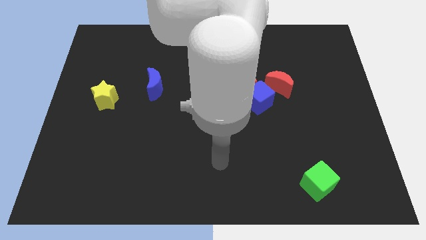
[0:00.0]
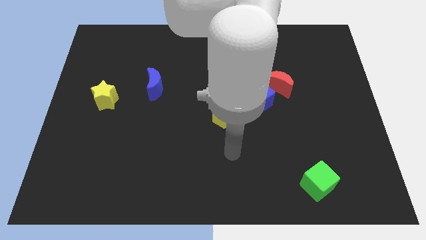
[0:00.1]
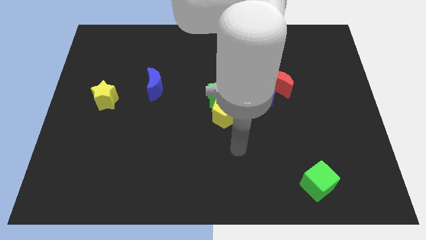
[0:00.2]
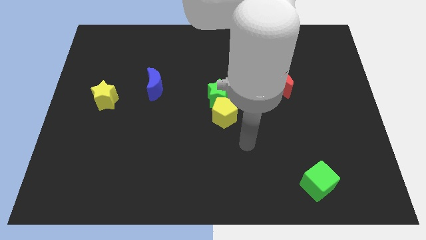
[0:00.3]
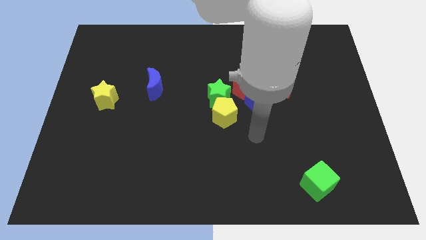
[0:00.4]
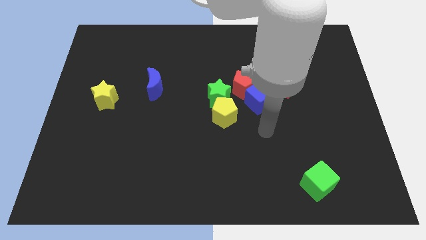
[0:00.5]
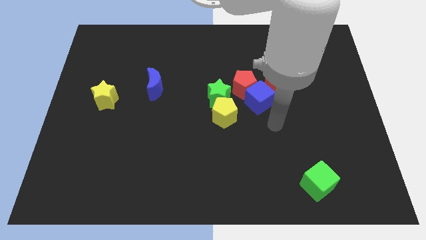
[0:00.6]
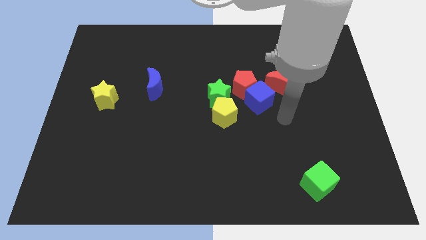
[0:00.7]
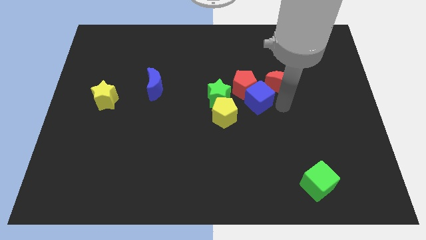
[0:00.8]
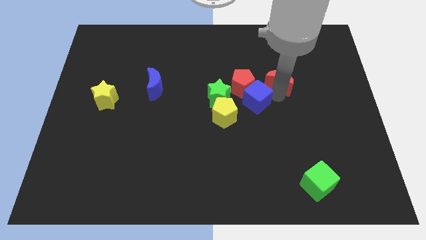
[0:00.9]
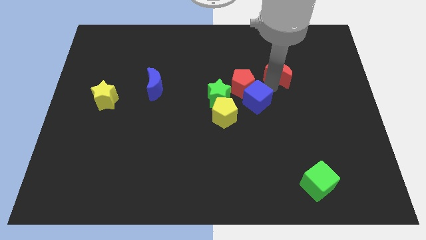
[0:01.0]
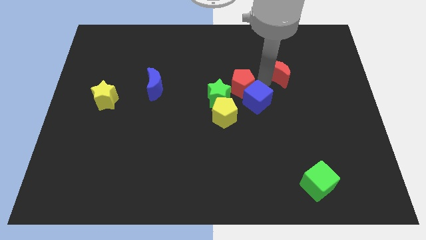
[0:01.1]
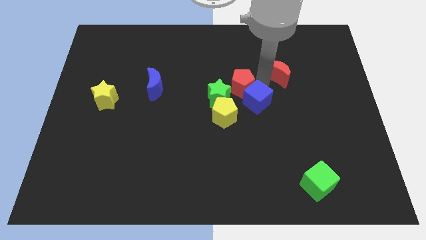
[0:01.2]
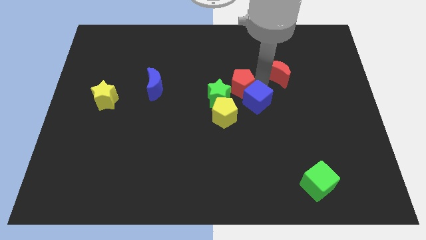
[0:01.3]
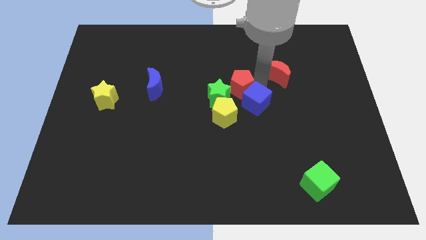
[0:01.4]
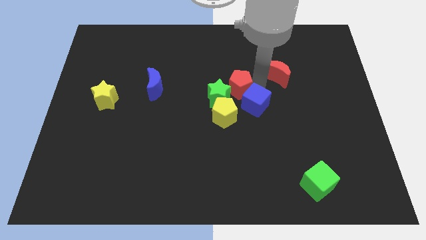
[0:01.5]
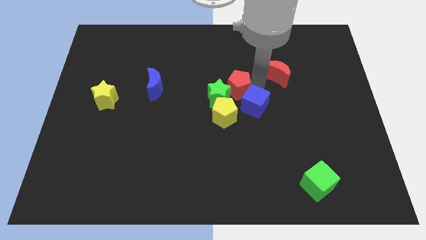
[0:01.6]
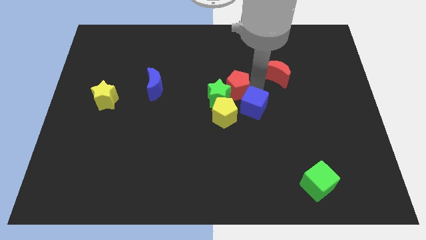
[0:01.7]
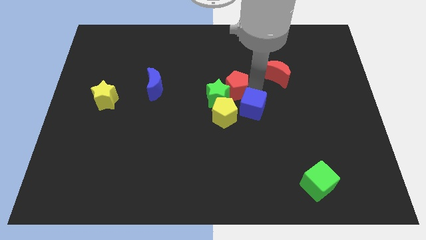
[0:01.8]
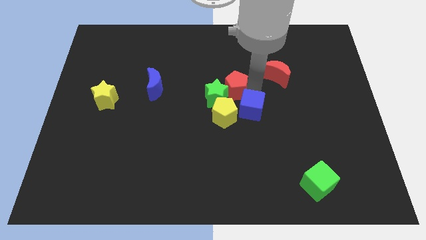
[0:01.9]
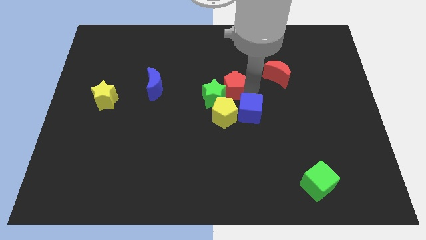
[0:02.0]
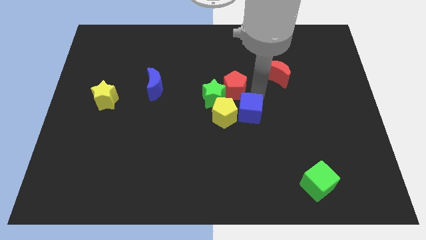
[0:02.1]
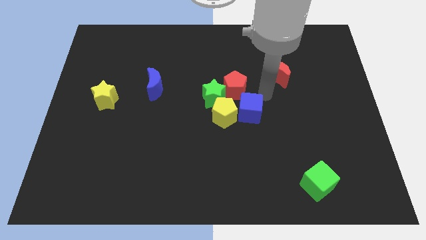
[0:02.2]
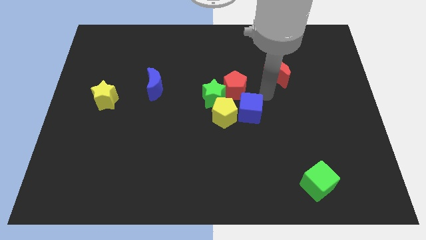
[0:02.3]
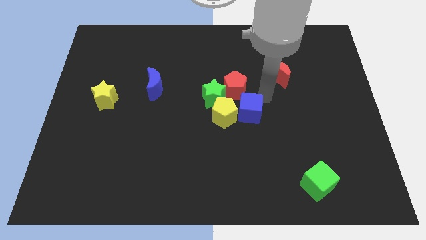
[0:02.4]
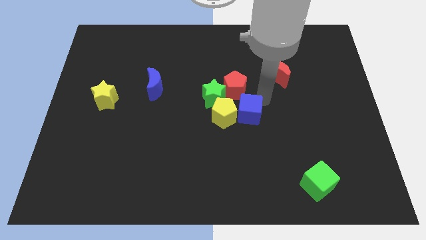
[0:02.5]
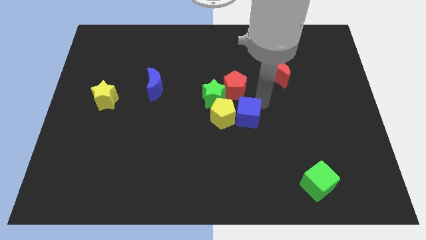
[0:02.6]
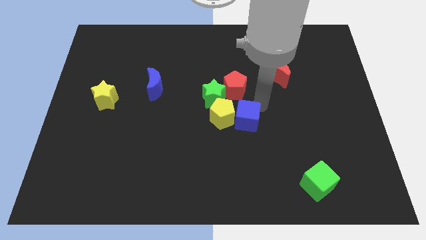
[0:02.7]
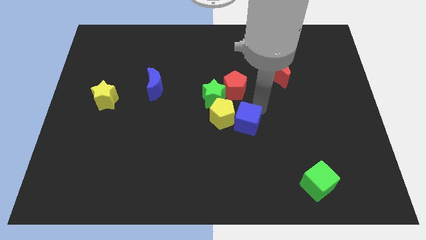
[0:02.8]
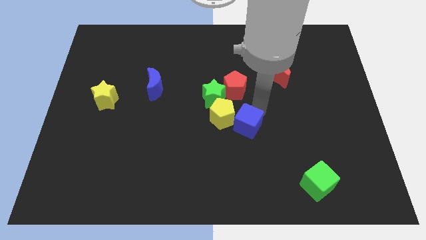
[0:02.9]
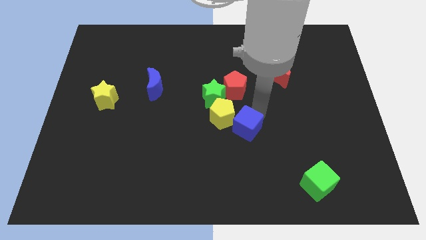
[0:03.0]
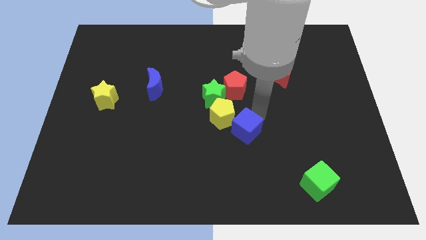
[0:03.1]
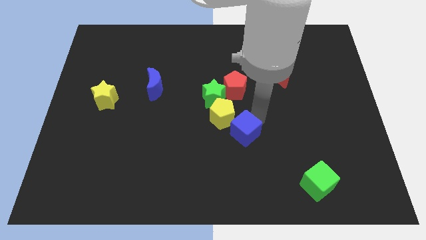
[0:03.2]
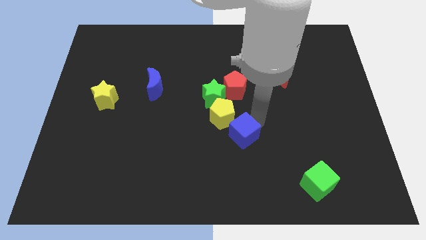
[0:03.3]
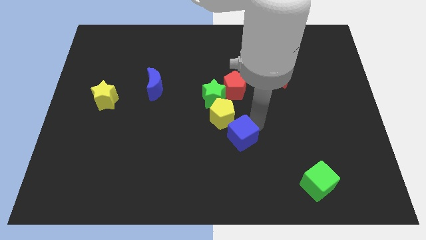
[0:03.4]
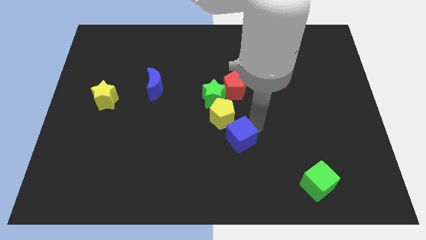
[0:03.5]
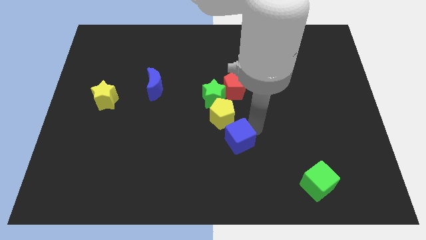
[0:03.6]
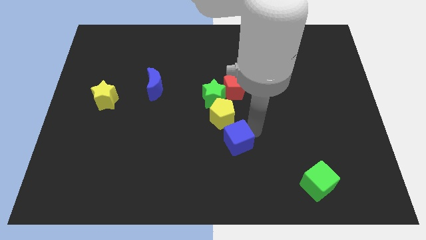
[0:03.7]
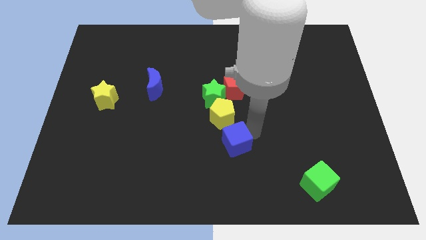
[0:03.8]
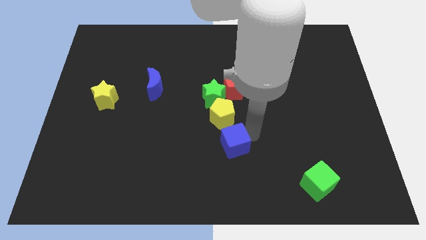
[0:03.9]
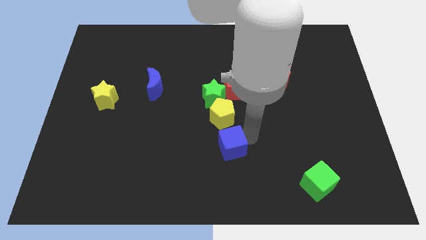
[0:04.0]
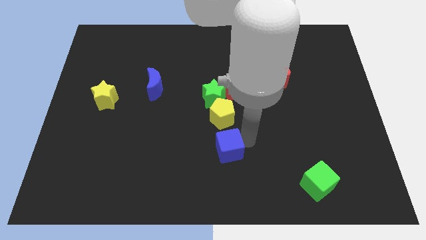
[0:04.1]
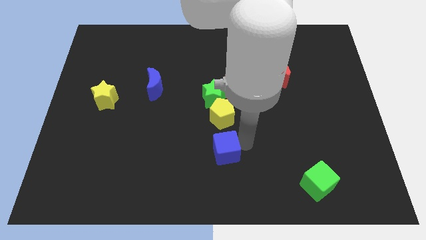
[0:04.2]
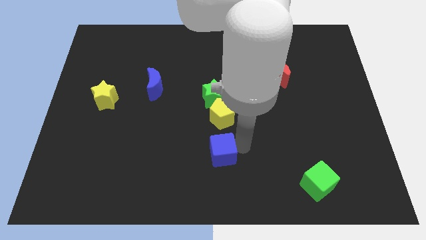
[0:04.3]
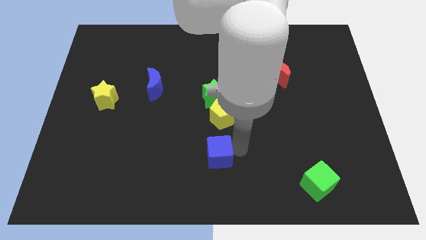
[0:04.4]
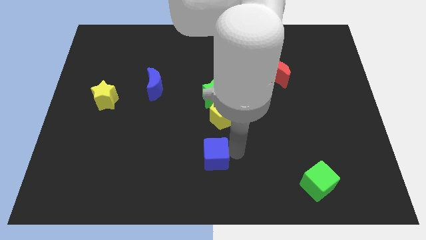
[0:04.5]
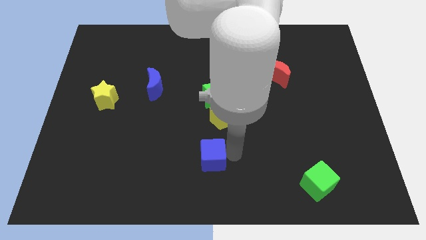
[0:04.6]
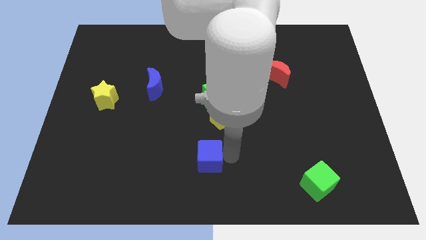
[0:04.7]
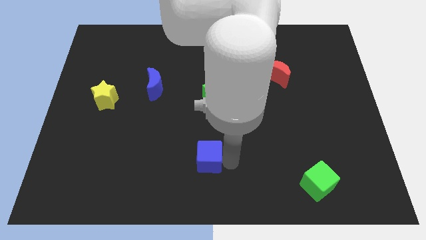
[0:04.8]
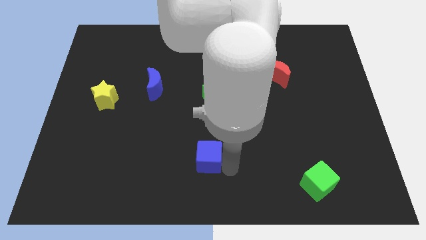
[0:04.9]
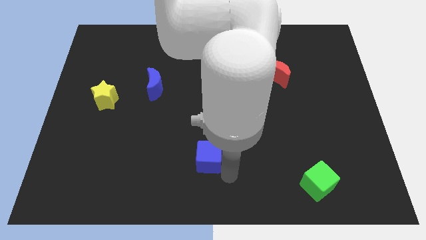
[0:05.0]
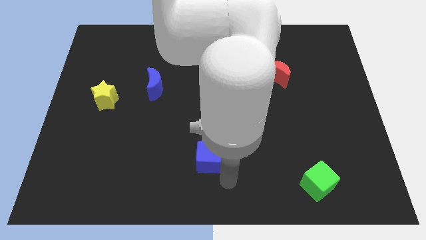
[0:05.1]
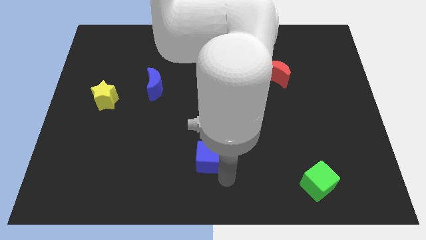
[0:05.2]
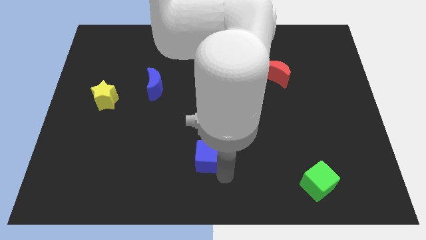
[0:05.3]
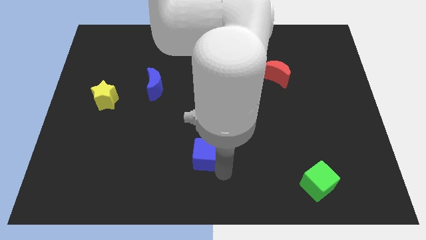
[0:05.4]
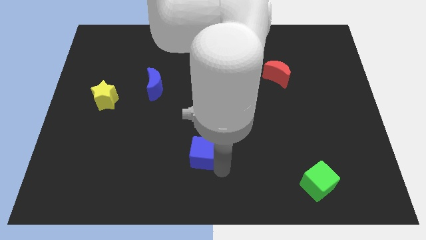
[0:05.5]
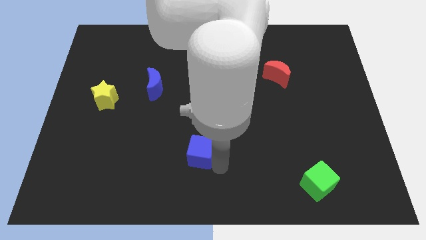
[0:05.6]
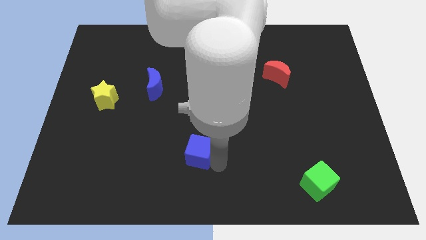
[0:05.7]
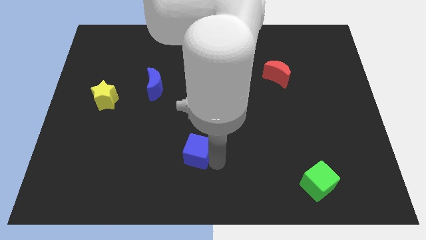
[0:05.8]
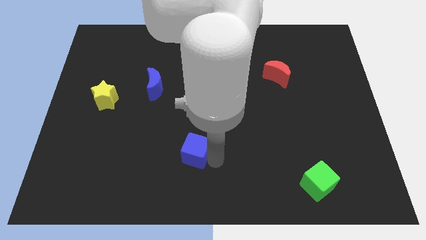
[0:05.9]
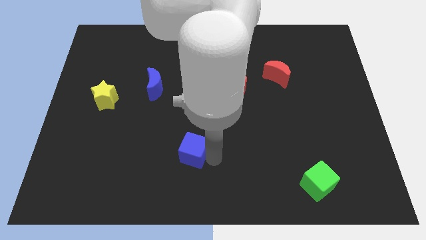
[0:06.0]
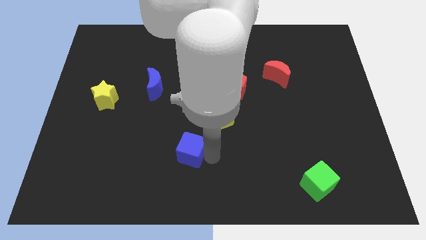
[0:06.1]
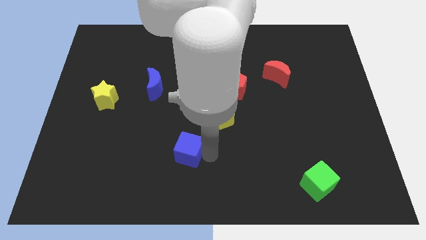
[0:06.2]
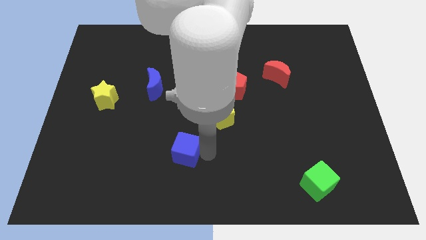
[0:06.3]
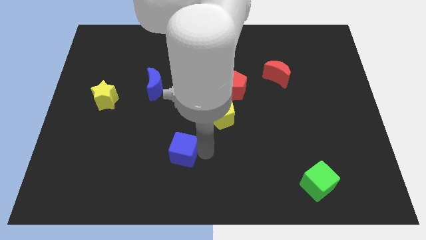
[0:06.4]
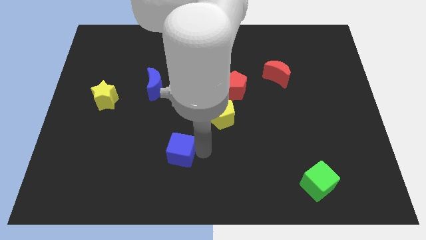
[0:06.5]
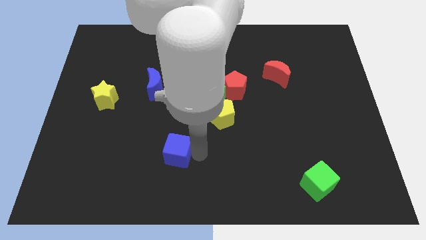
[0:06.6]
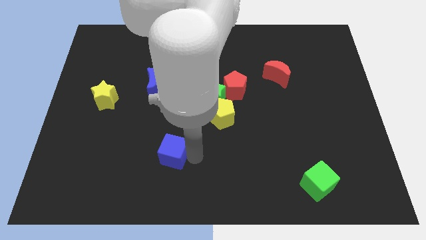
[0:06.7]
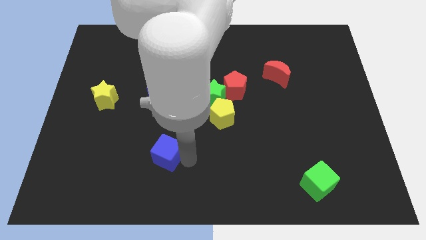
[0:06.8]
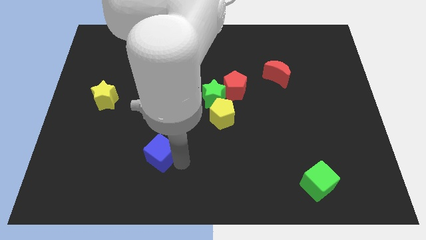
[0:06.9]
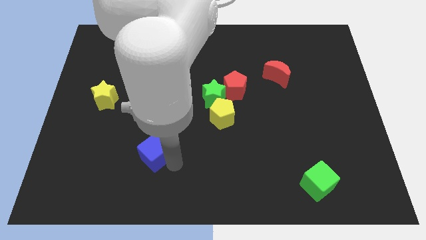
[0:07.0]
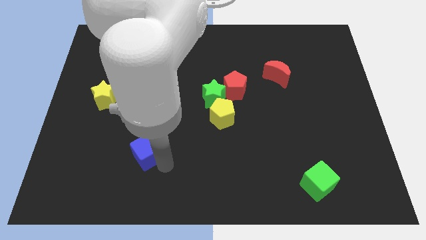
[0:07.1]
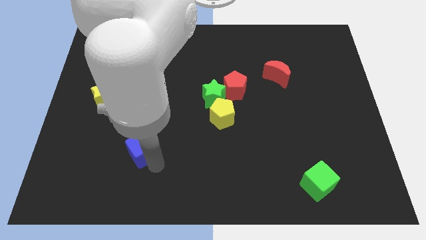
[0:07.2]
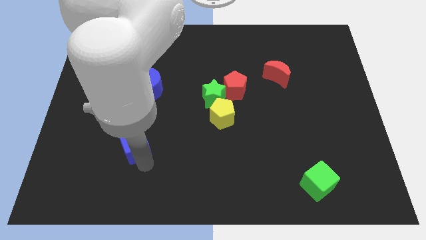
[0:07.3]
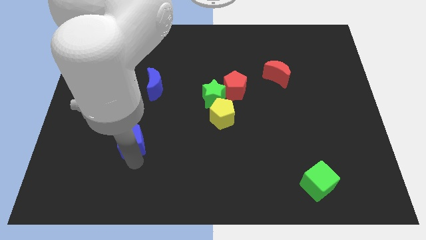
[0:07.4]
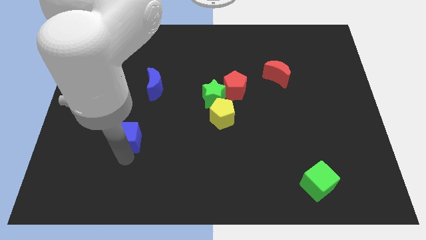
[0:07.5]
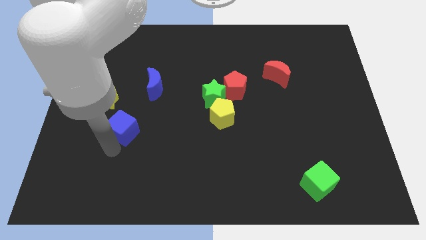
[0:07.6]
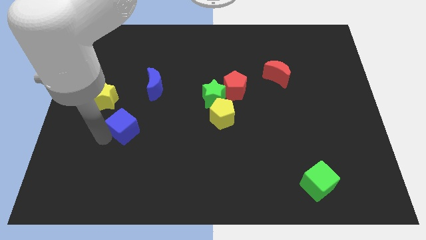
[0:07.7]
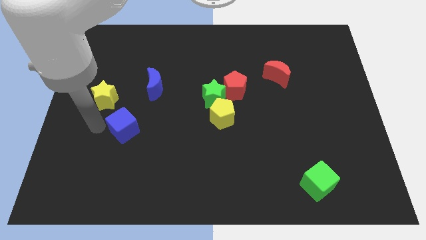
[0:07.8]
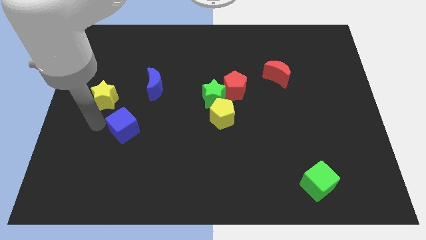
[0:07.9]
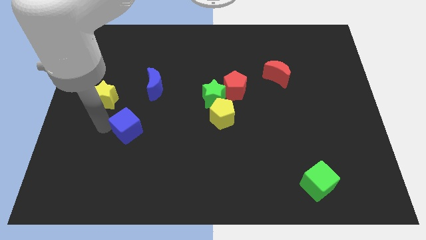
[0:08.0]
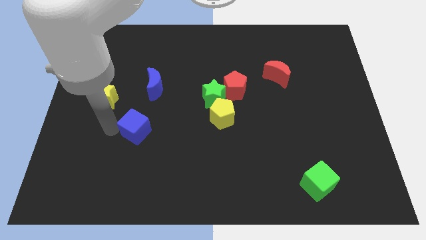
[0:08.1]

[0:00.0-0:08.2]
push the blue cube below the blue moon
